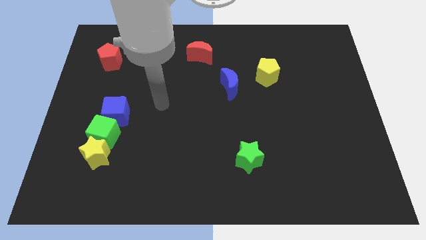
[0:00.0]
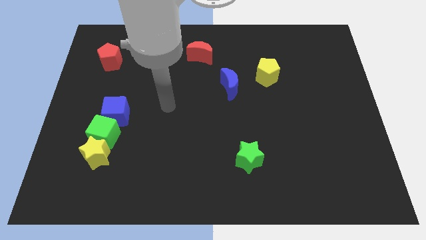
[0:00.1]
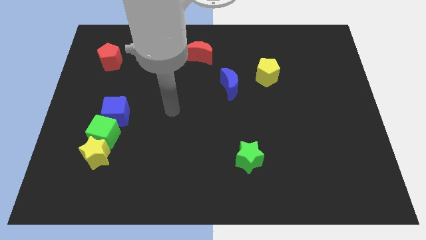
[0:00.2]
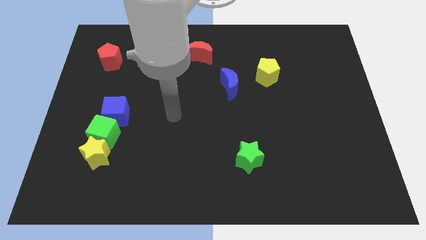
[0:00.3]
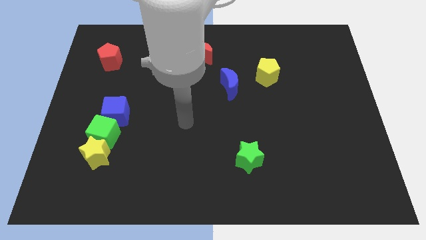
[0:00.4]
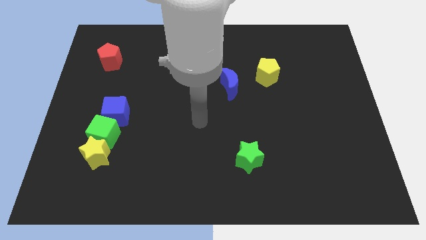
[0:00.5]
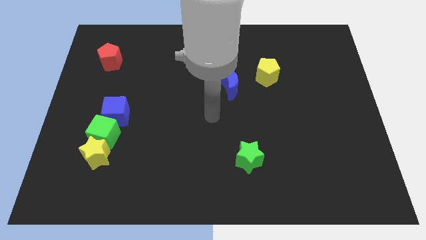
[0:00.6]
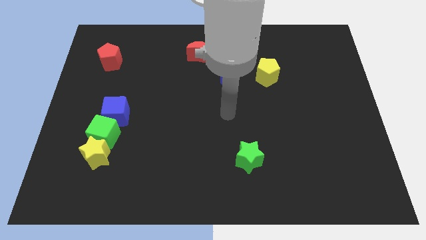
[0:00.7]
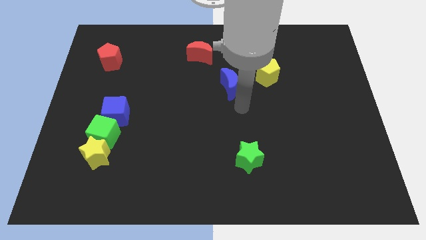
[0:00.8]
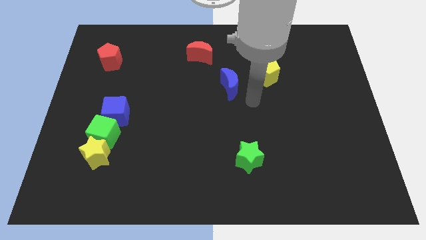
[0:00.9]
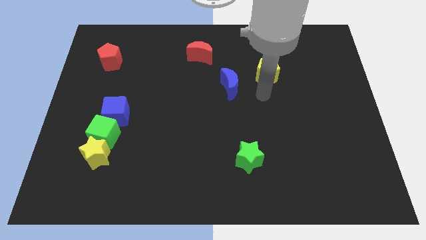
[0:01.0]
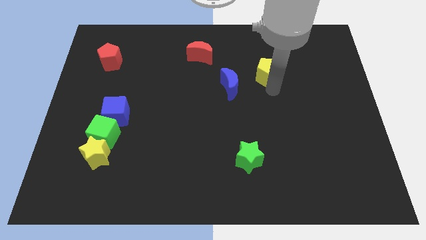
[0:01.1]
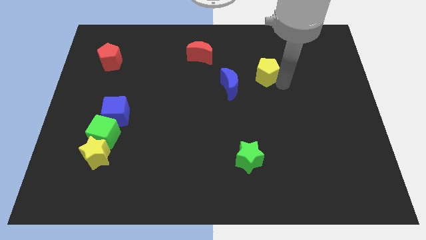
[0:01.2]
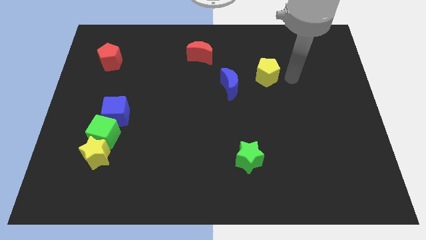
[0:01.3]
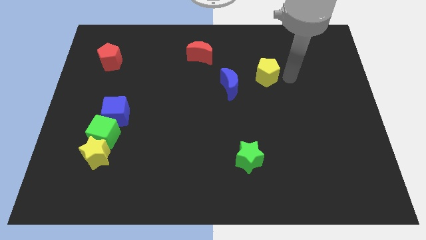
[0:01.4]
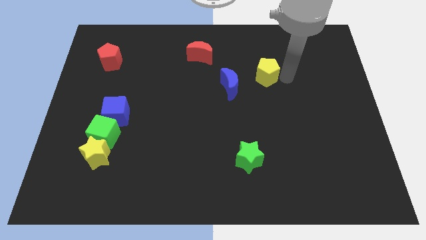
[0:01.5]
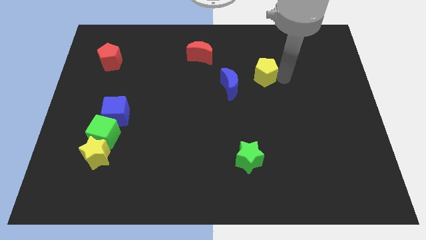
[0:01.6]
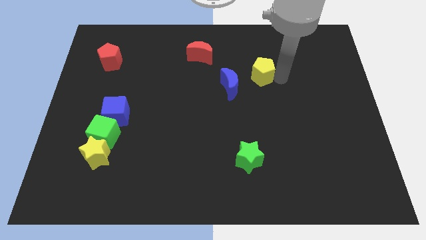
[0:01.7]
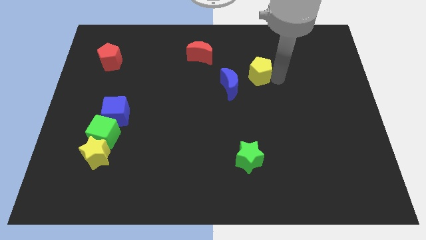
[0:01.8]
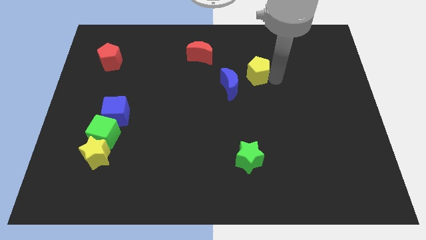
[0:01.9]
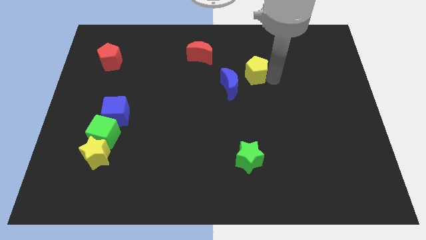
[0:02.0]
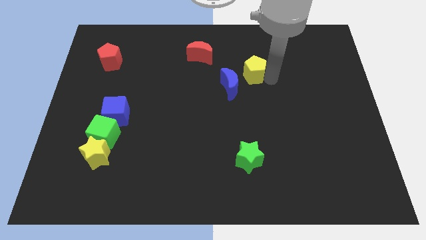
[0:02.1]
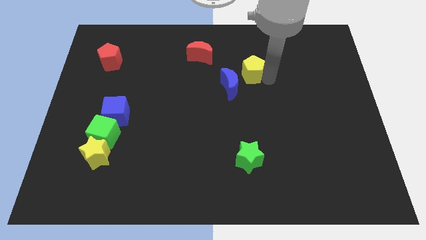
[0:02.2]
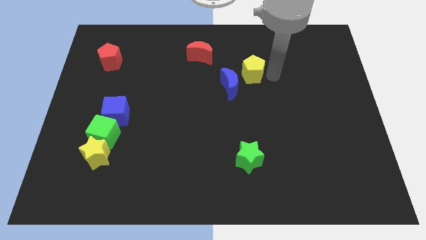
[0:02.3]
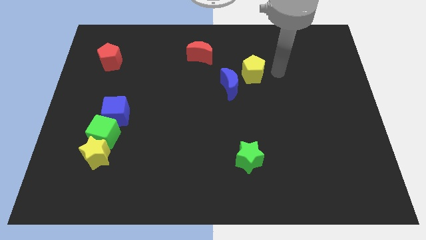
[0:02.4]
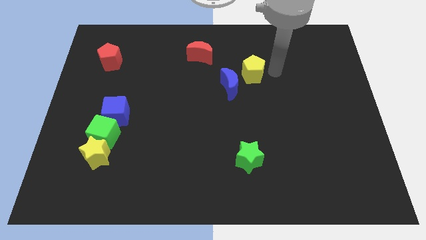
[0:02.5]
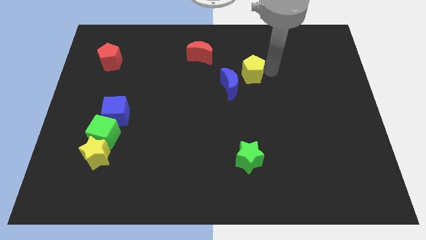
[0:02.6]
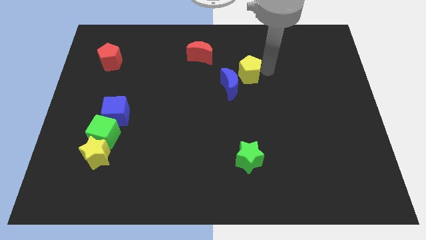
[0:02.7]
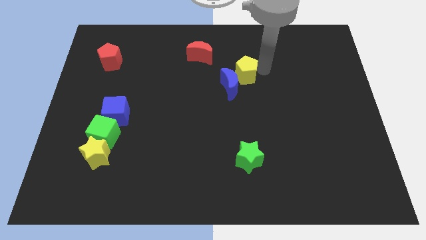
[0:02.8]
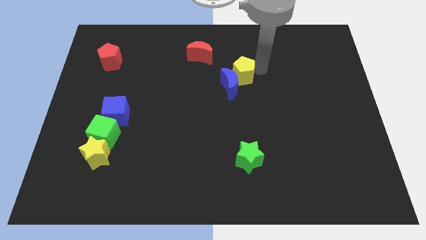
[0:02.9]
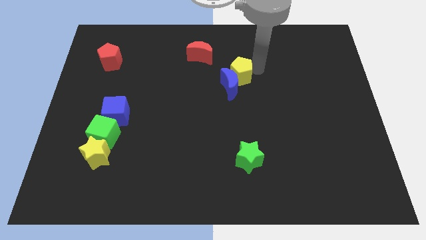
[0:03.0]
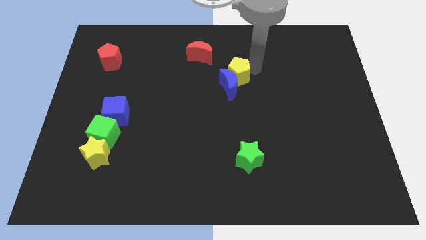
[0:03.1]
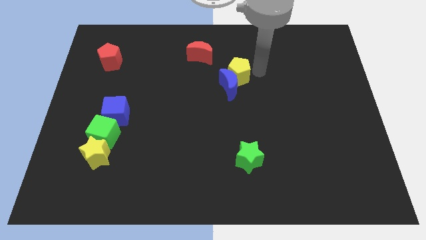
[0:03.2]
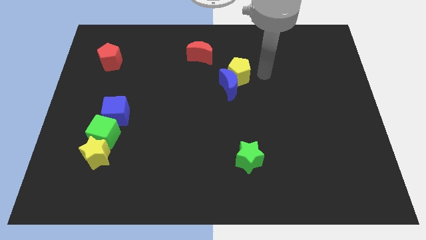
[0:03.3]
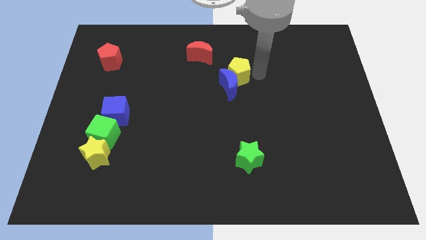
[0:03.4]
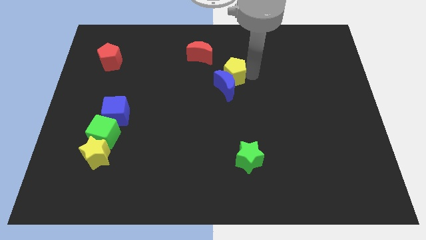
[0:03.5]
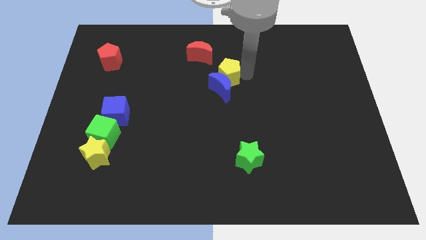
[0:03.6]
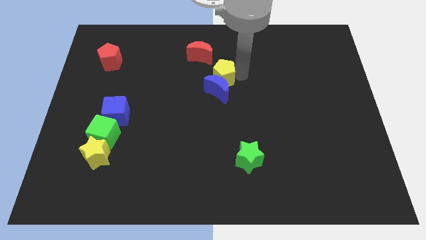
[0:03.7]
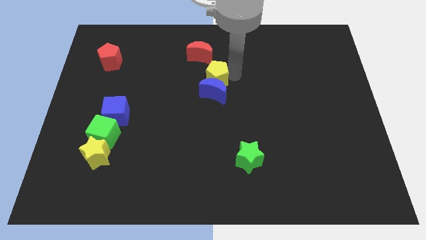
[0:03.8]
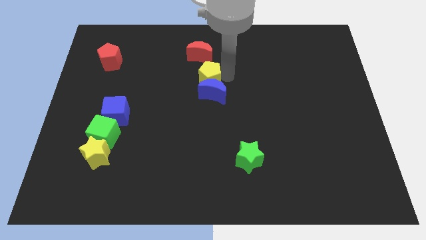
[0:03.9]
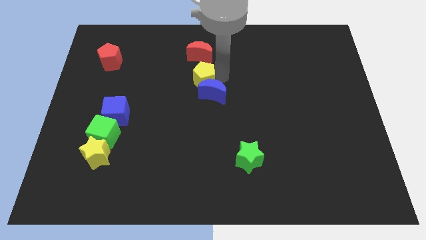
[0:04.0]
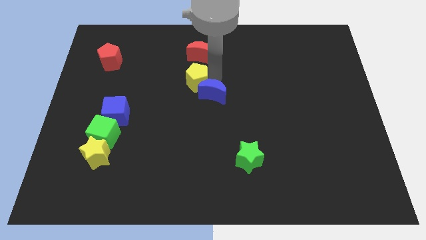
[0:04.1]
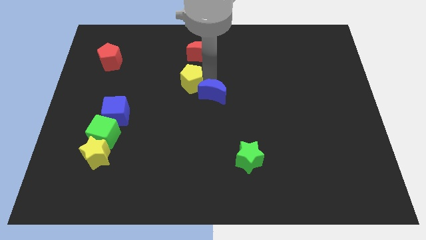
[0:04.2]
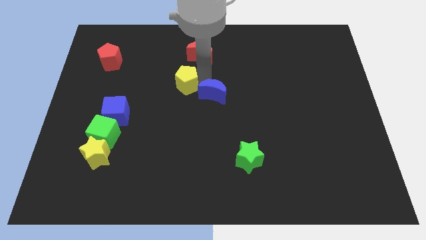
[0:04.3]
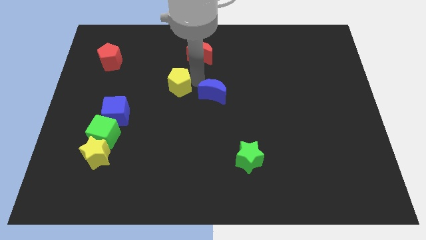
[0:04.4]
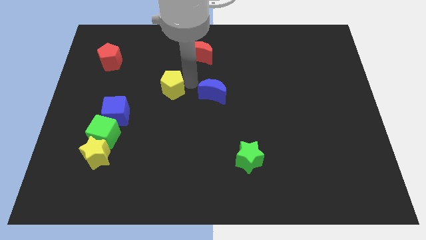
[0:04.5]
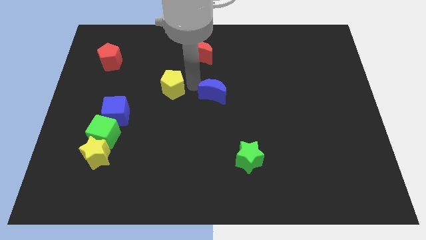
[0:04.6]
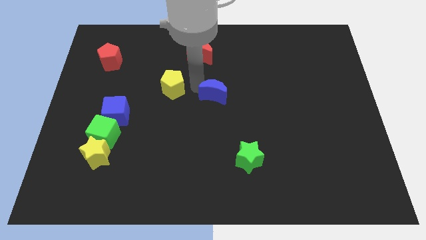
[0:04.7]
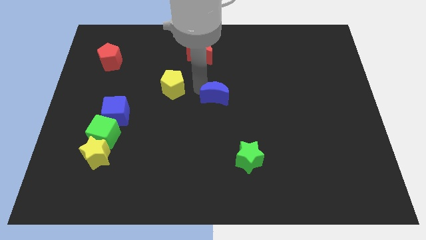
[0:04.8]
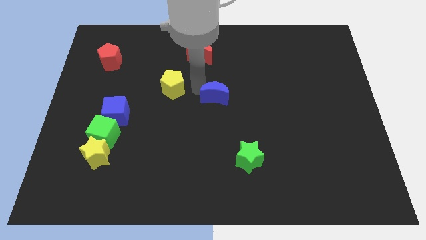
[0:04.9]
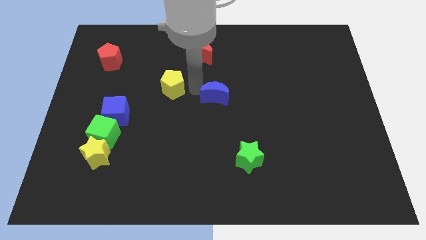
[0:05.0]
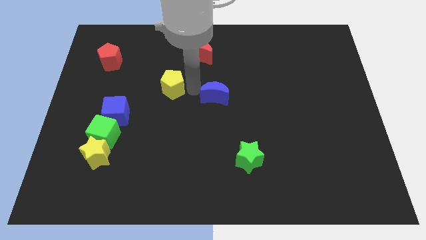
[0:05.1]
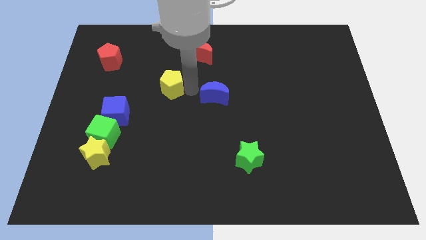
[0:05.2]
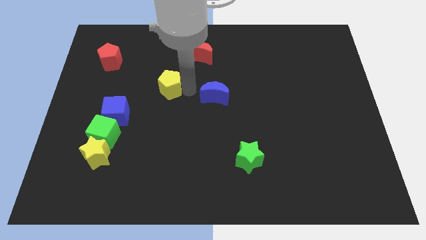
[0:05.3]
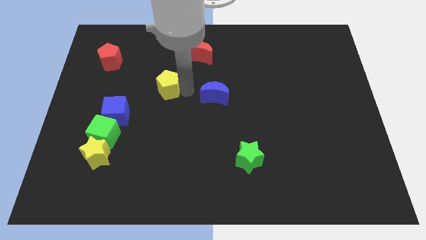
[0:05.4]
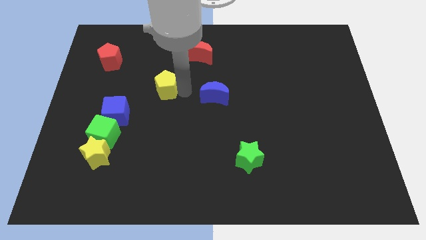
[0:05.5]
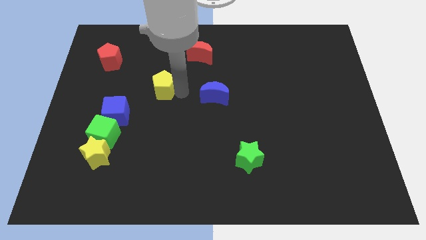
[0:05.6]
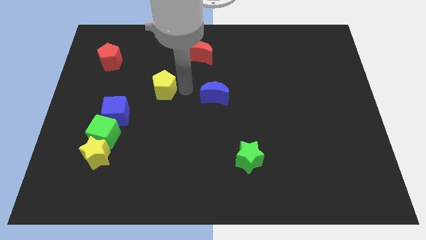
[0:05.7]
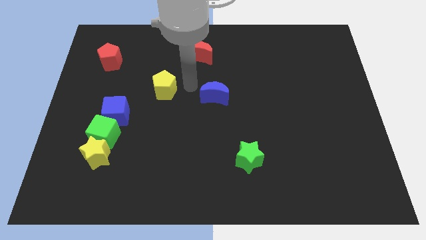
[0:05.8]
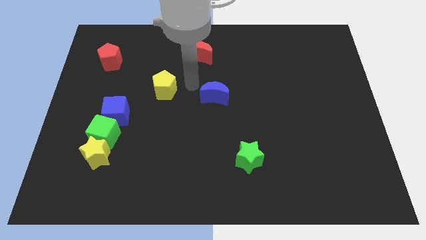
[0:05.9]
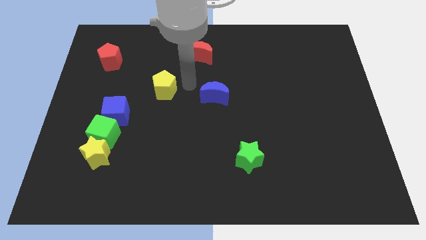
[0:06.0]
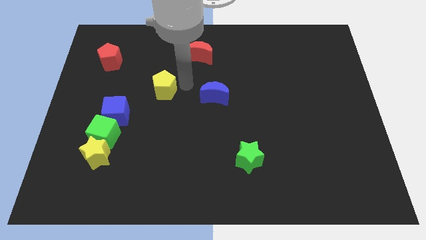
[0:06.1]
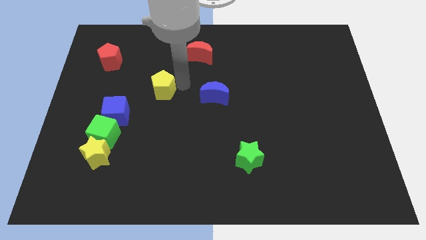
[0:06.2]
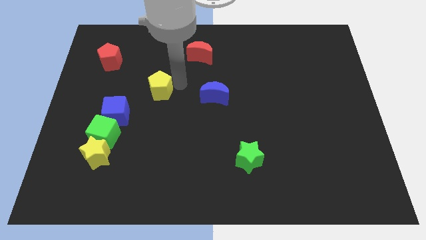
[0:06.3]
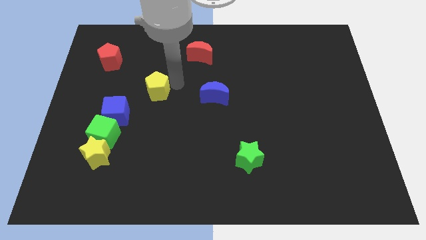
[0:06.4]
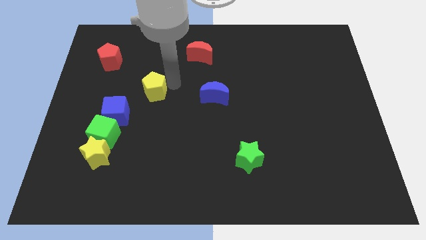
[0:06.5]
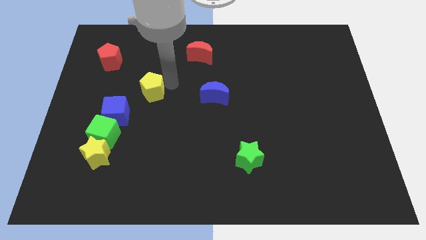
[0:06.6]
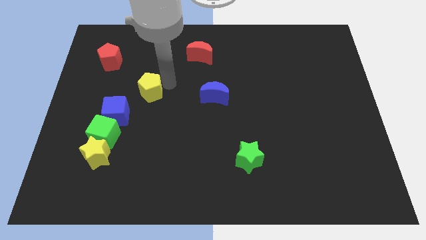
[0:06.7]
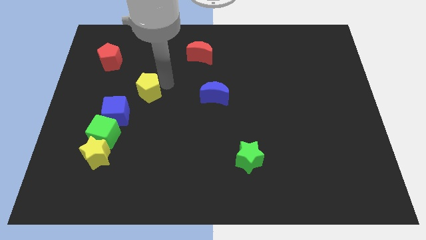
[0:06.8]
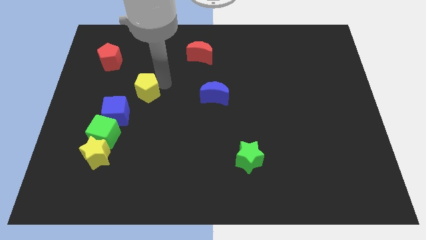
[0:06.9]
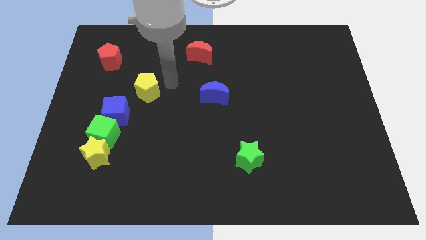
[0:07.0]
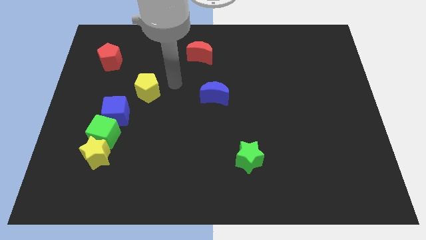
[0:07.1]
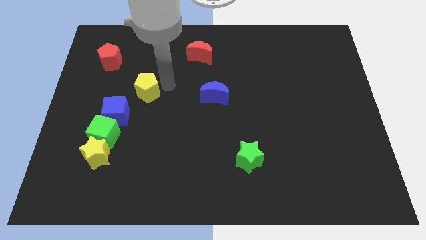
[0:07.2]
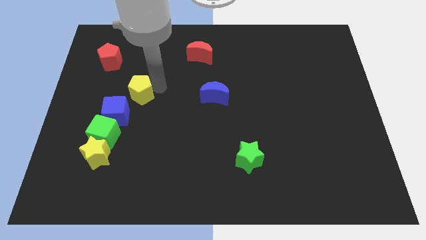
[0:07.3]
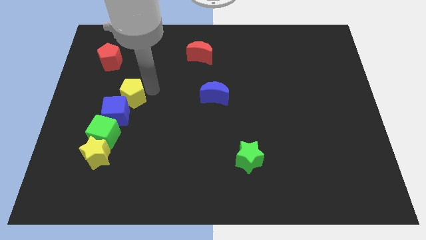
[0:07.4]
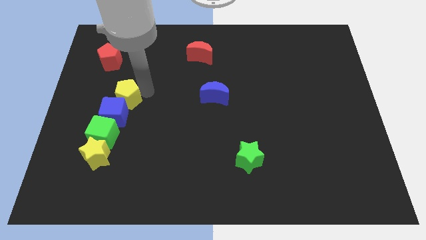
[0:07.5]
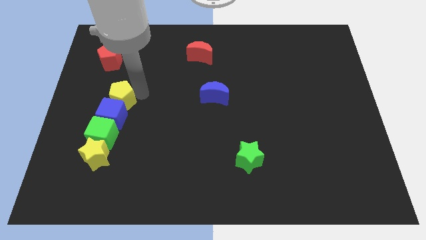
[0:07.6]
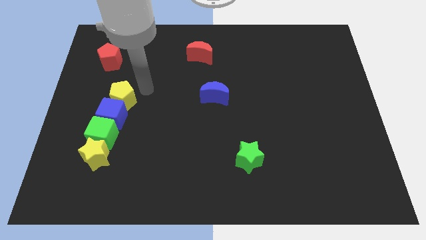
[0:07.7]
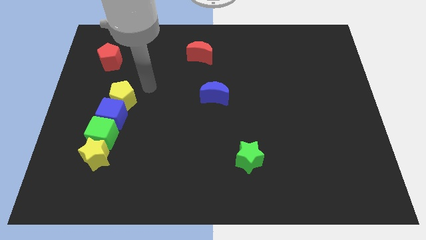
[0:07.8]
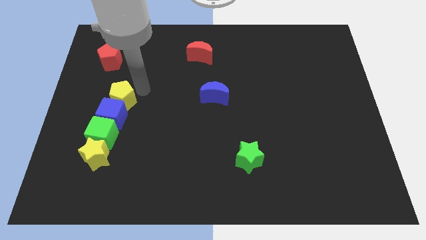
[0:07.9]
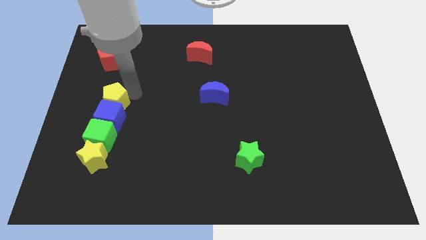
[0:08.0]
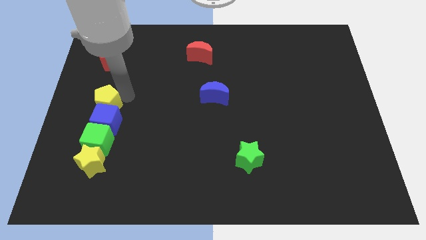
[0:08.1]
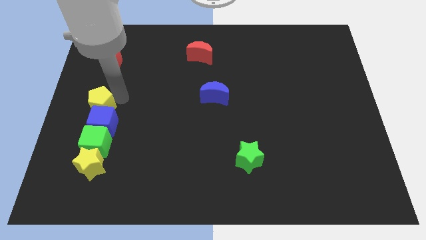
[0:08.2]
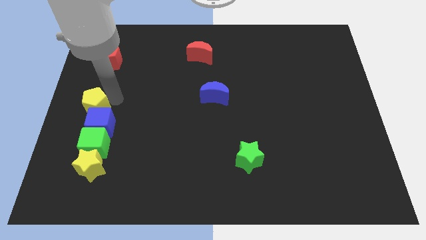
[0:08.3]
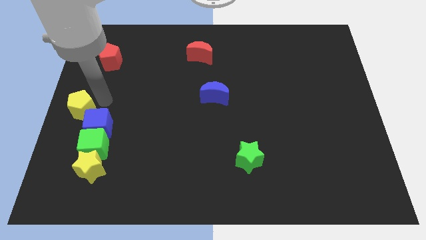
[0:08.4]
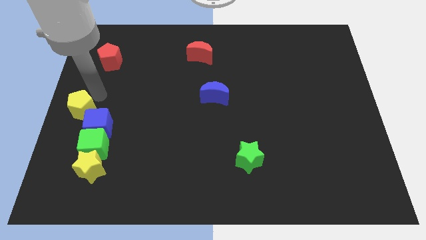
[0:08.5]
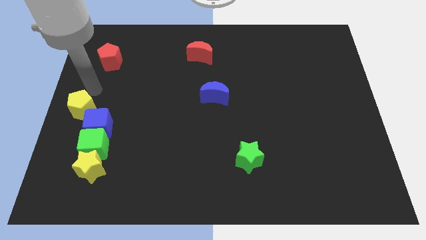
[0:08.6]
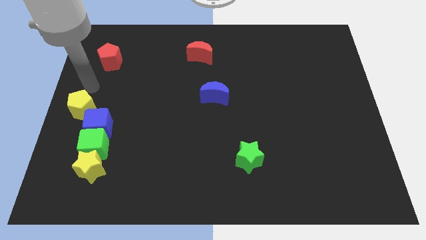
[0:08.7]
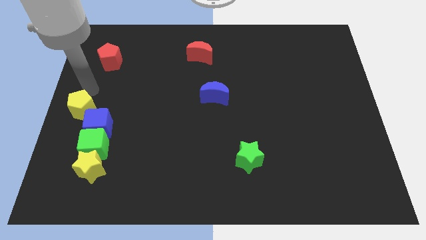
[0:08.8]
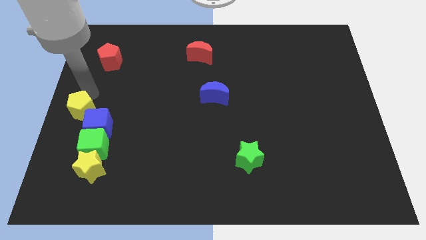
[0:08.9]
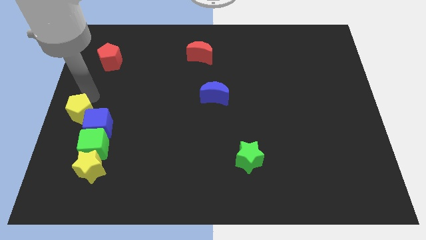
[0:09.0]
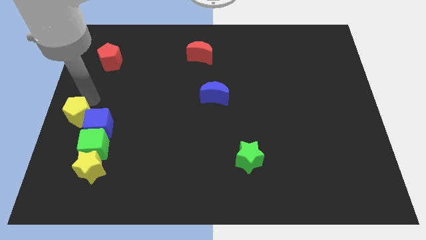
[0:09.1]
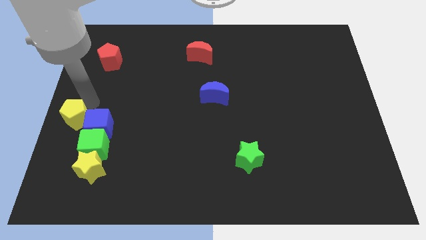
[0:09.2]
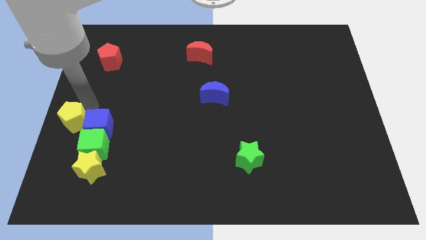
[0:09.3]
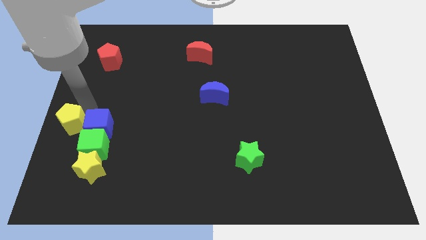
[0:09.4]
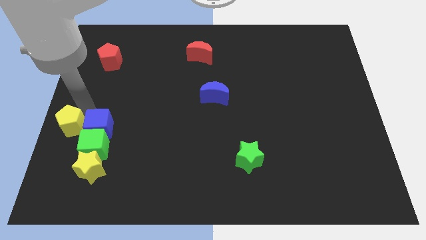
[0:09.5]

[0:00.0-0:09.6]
put the yellow pentagon to the bottom left side of the blue cube
